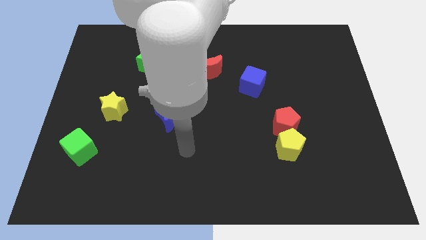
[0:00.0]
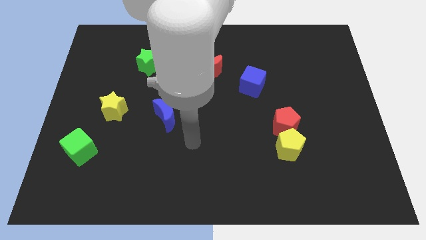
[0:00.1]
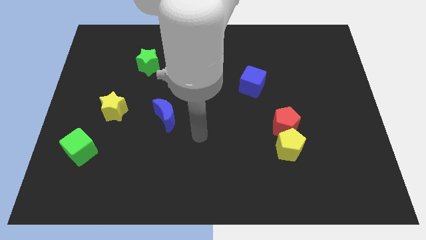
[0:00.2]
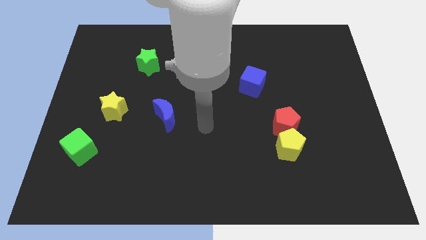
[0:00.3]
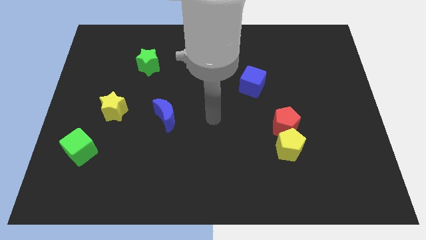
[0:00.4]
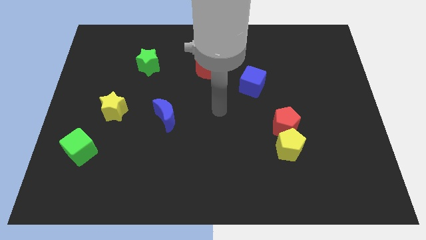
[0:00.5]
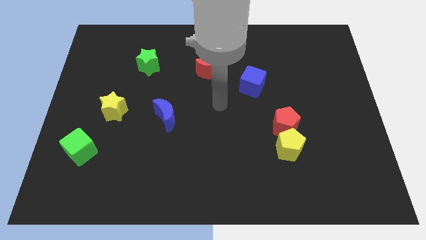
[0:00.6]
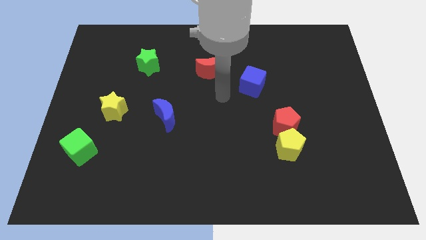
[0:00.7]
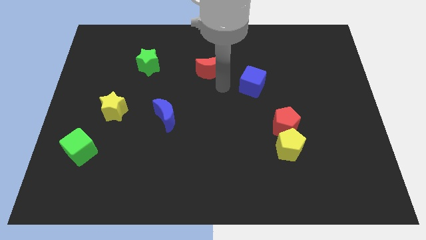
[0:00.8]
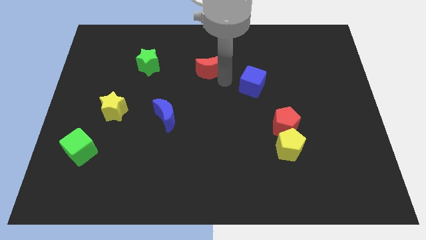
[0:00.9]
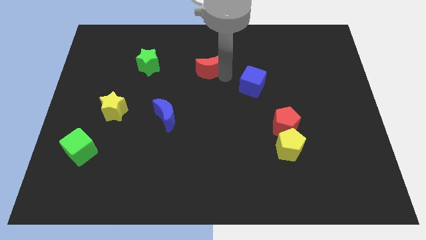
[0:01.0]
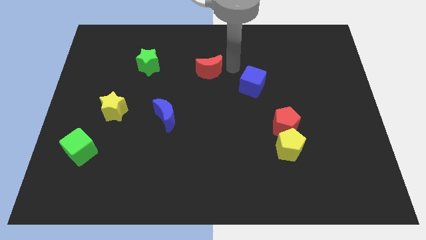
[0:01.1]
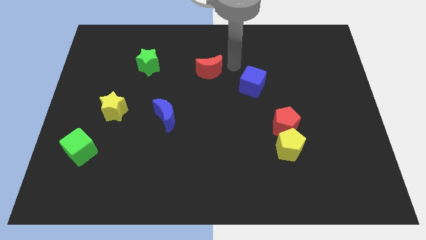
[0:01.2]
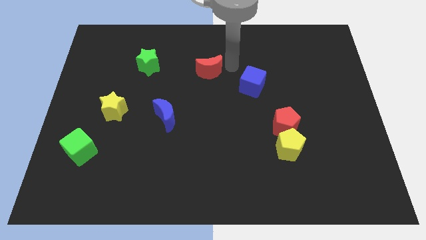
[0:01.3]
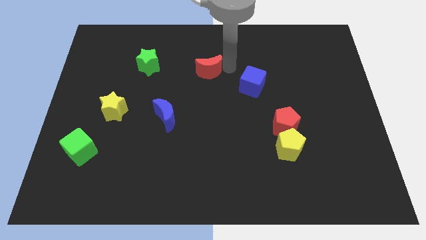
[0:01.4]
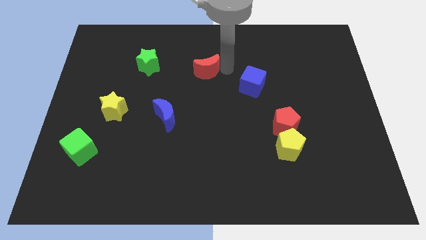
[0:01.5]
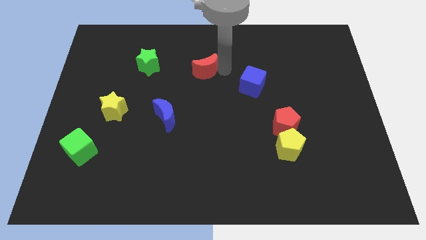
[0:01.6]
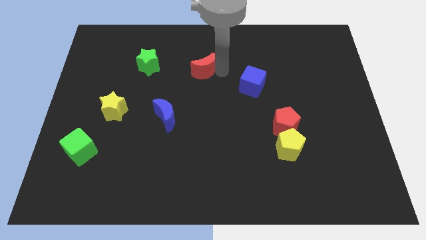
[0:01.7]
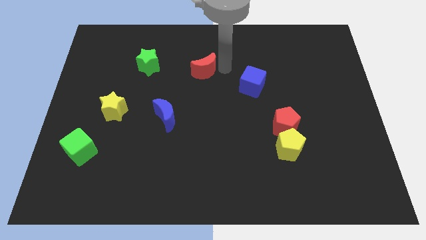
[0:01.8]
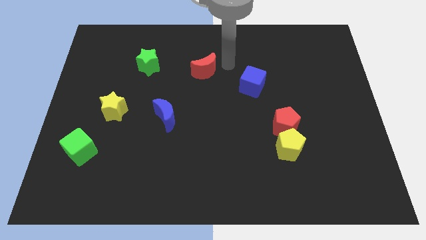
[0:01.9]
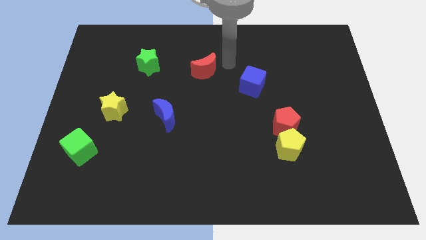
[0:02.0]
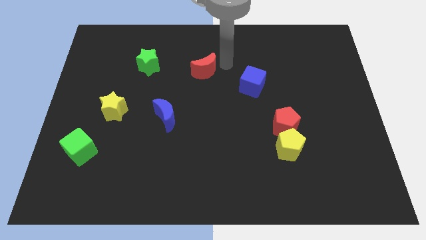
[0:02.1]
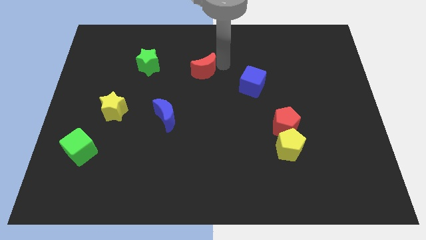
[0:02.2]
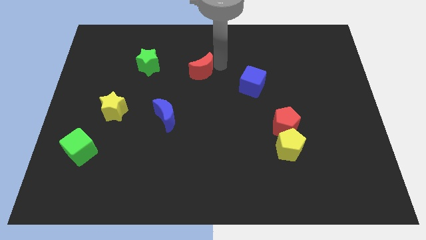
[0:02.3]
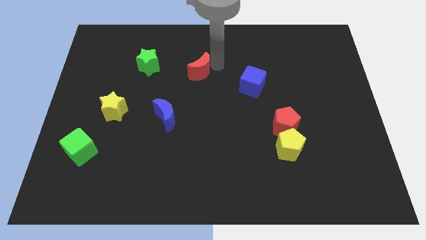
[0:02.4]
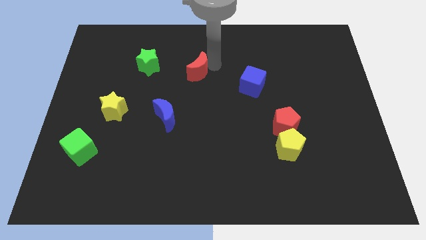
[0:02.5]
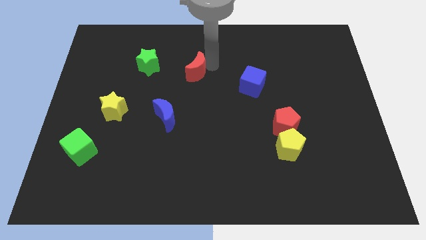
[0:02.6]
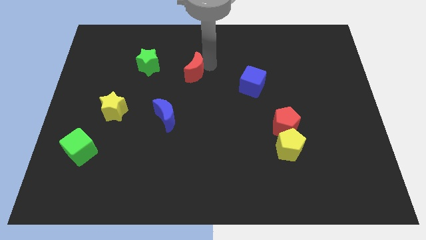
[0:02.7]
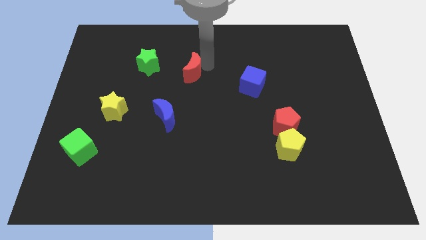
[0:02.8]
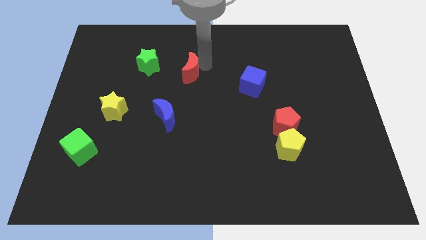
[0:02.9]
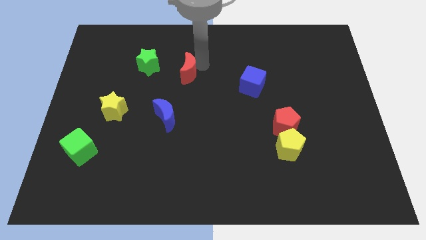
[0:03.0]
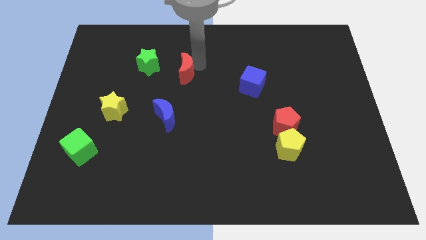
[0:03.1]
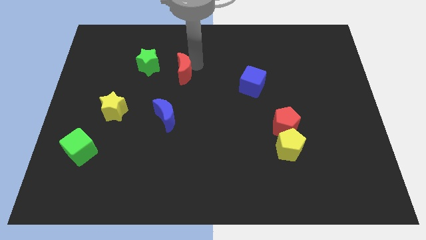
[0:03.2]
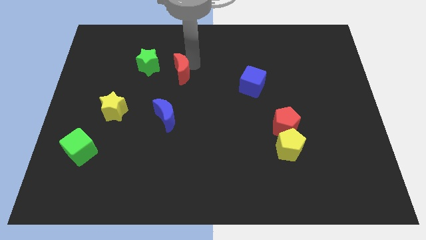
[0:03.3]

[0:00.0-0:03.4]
slide the red moon a little bit to the left

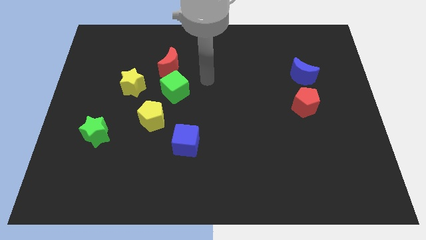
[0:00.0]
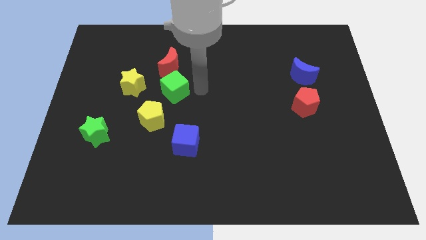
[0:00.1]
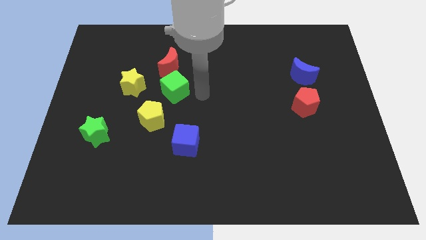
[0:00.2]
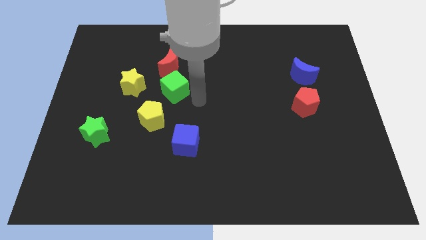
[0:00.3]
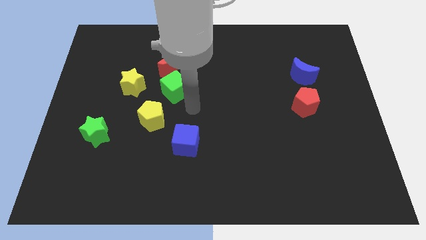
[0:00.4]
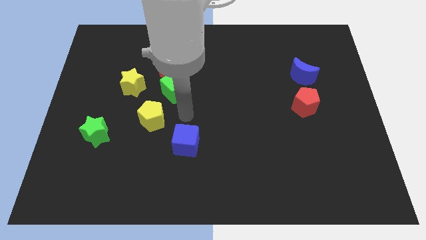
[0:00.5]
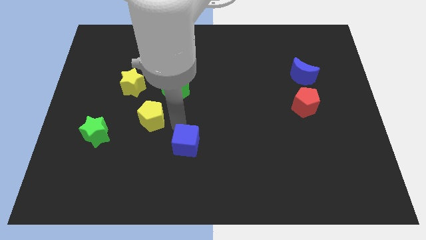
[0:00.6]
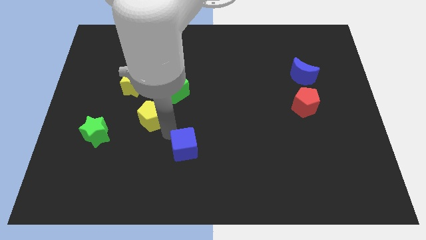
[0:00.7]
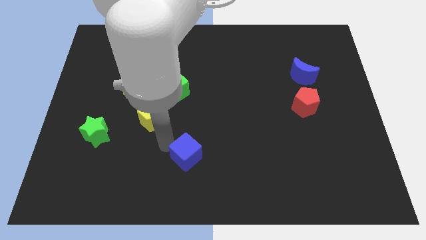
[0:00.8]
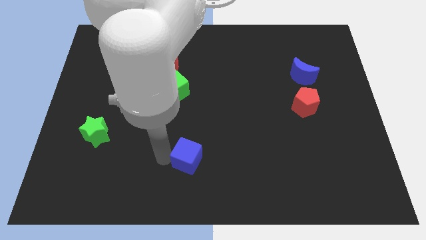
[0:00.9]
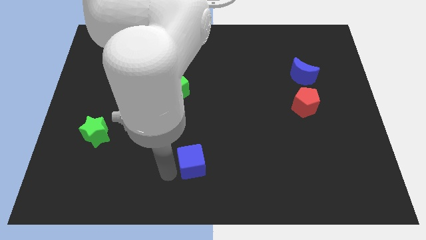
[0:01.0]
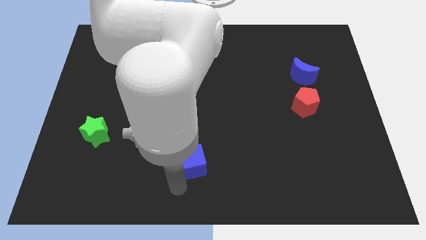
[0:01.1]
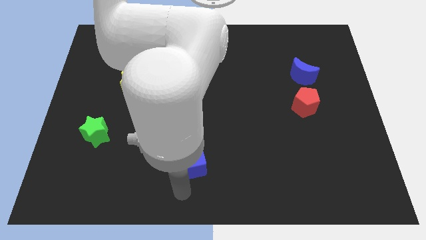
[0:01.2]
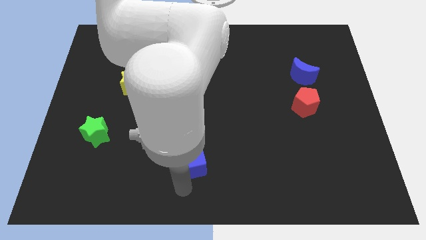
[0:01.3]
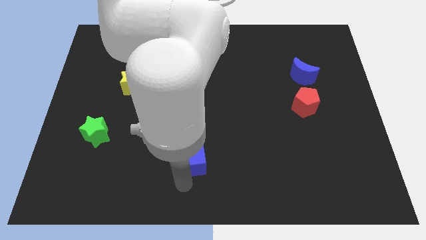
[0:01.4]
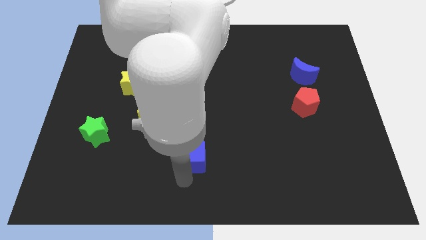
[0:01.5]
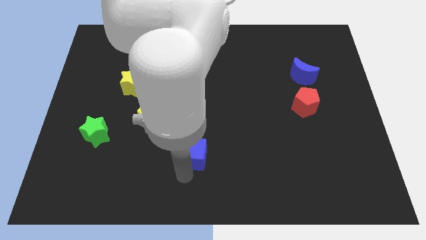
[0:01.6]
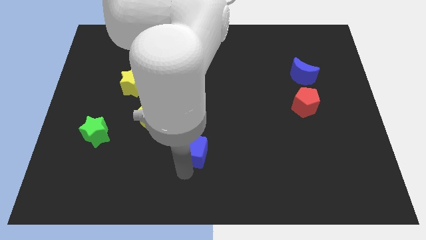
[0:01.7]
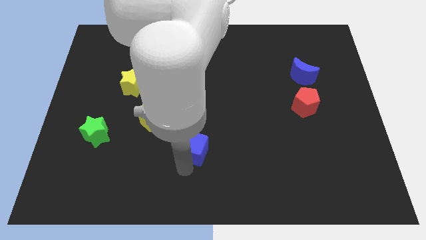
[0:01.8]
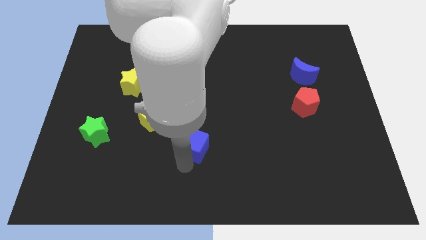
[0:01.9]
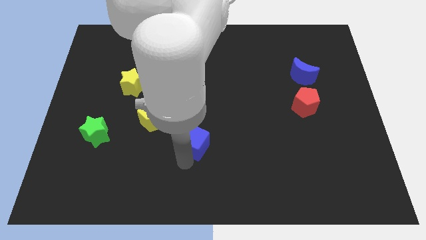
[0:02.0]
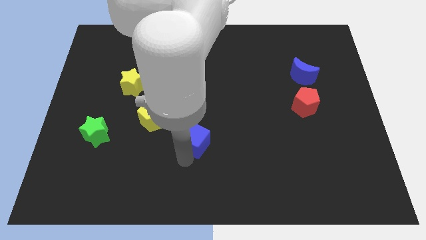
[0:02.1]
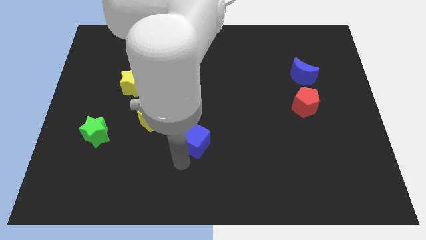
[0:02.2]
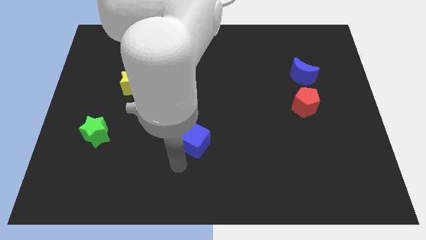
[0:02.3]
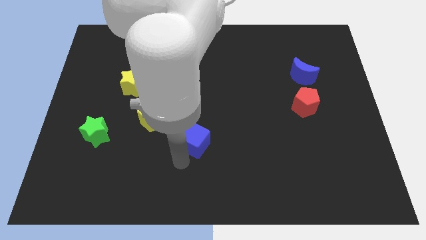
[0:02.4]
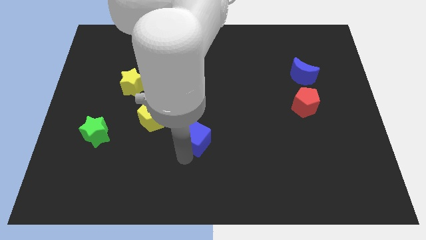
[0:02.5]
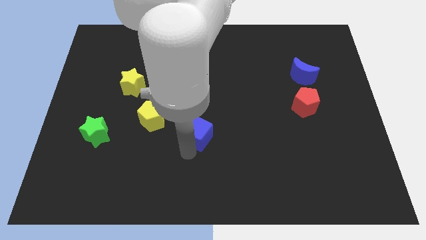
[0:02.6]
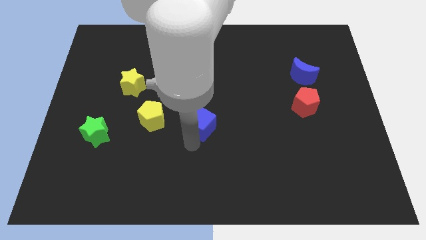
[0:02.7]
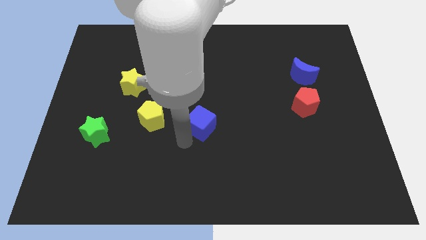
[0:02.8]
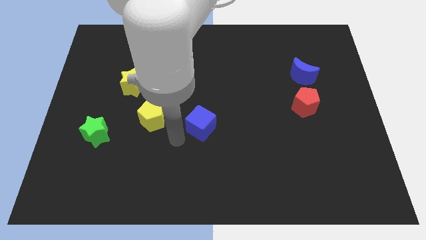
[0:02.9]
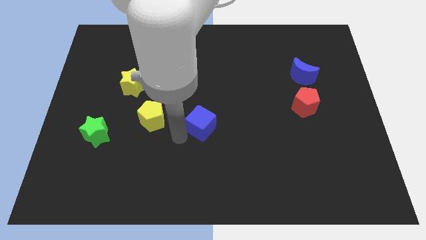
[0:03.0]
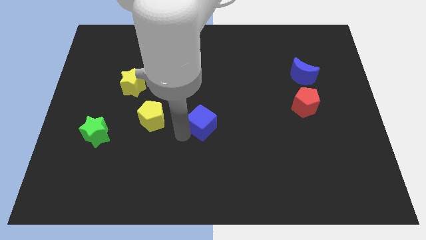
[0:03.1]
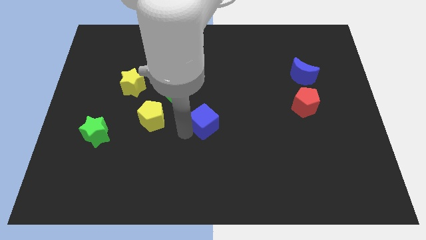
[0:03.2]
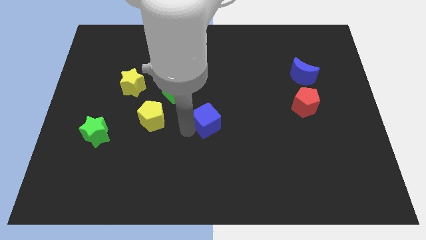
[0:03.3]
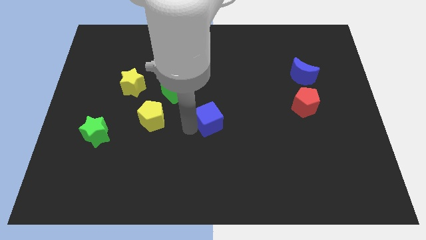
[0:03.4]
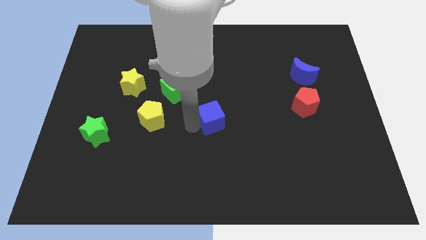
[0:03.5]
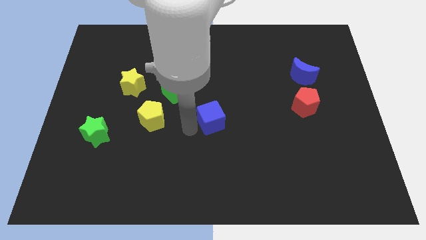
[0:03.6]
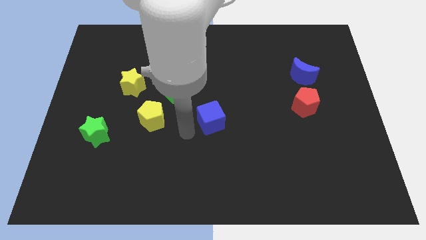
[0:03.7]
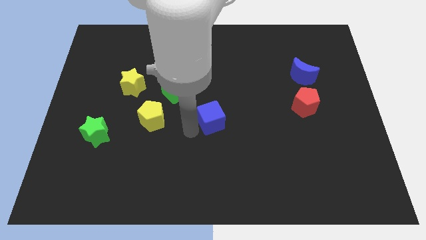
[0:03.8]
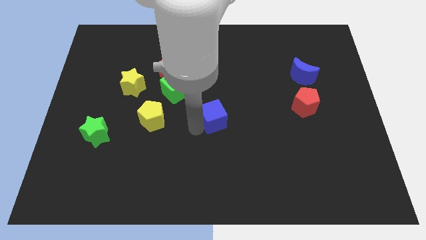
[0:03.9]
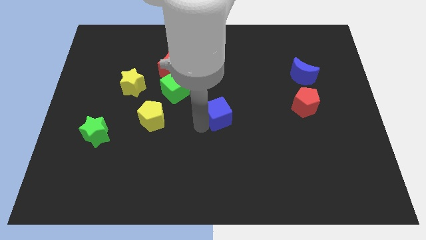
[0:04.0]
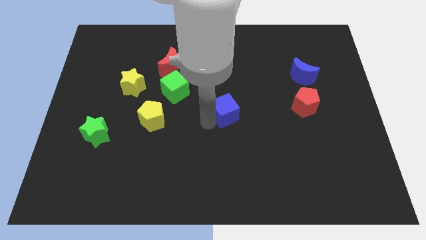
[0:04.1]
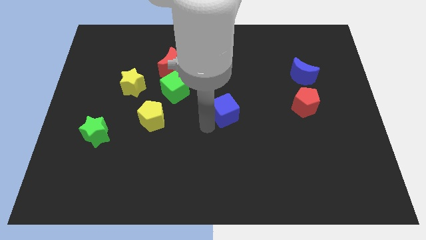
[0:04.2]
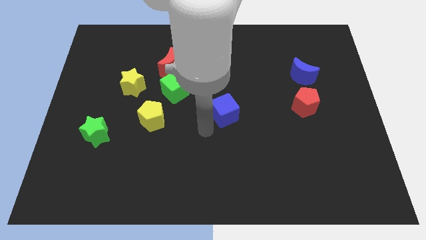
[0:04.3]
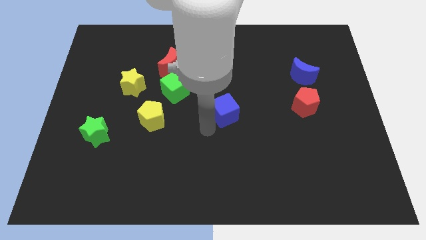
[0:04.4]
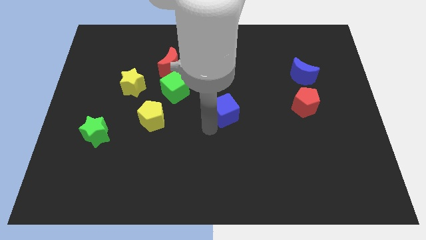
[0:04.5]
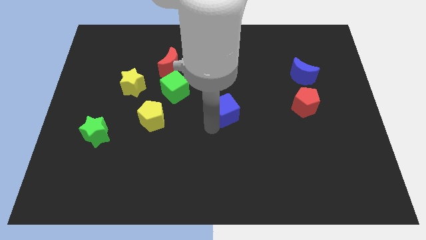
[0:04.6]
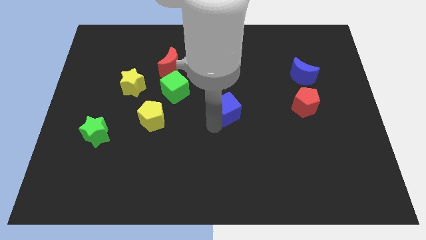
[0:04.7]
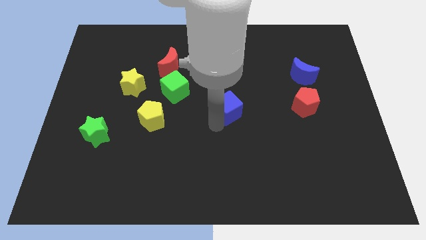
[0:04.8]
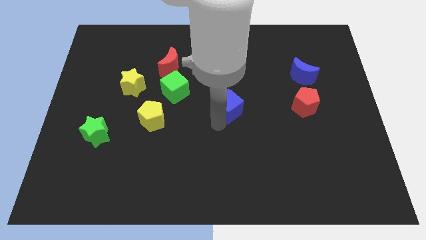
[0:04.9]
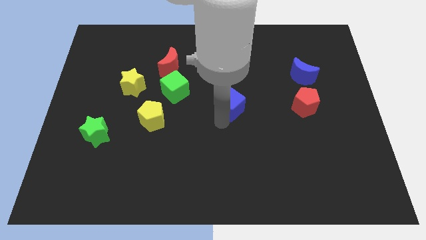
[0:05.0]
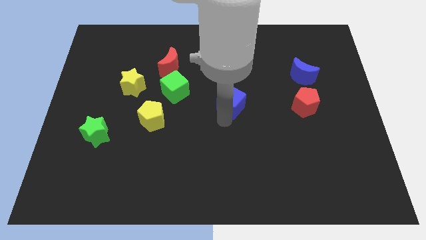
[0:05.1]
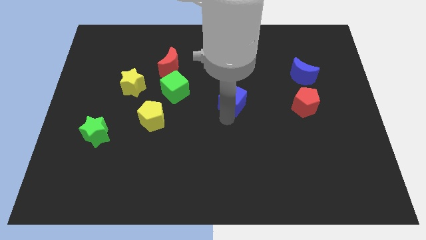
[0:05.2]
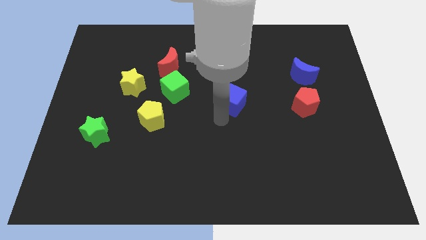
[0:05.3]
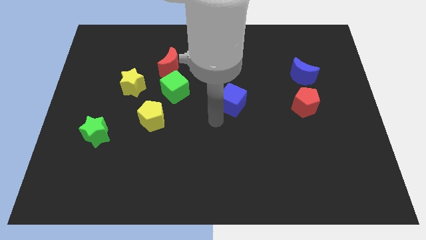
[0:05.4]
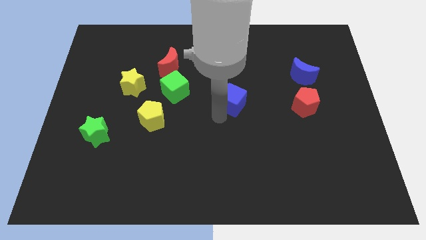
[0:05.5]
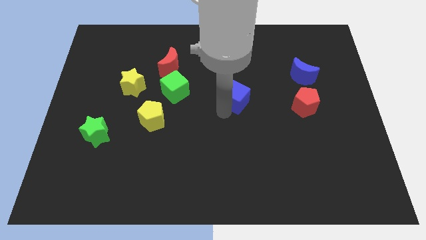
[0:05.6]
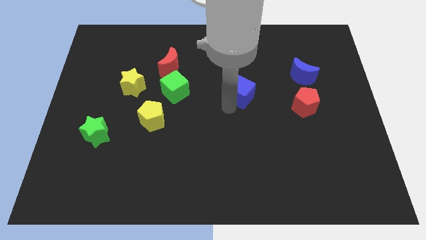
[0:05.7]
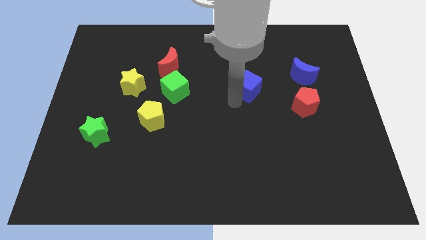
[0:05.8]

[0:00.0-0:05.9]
move the blue cube diagonally up and to the right
